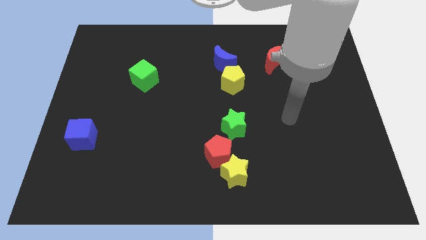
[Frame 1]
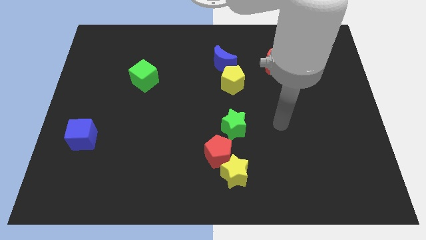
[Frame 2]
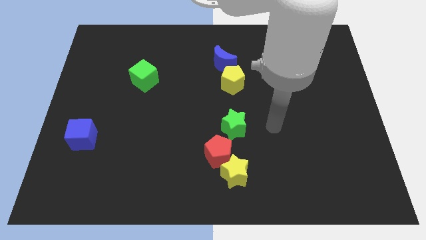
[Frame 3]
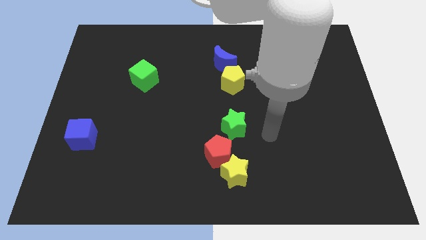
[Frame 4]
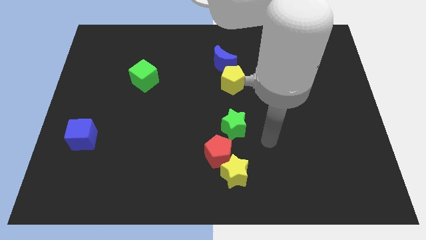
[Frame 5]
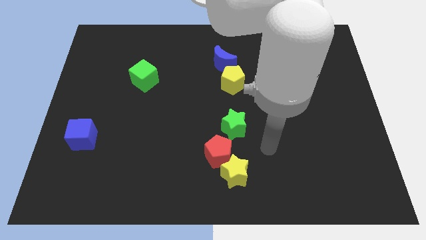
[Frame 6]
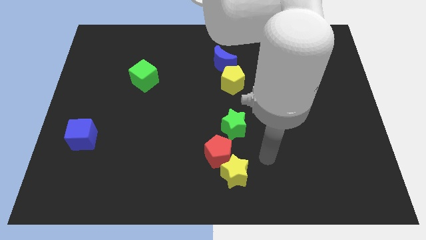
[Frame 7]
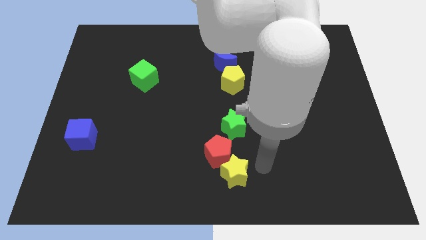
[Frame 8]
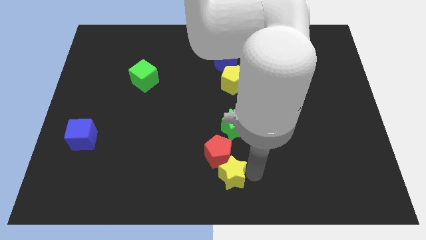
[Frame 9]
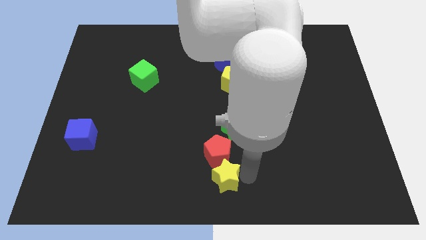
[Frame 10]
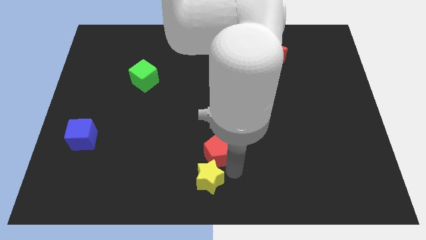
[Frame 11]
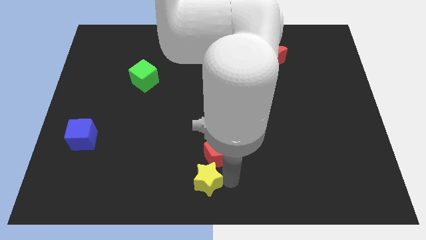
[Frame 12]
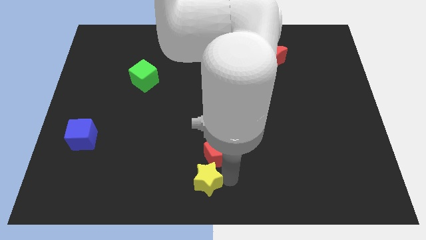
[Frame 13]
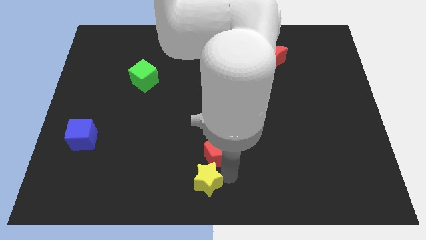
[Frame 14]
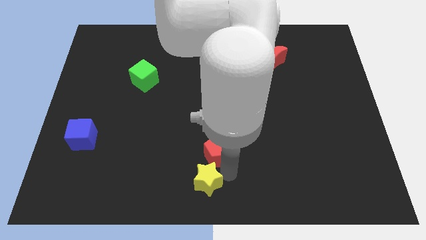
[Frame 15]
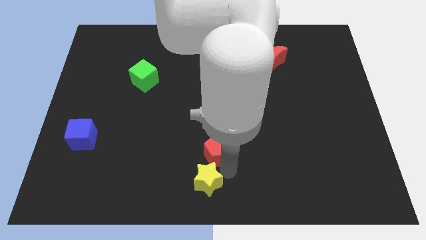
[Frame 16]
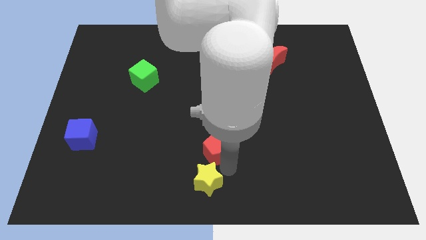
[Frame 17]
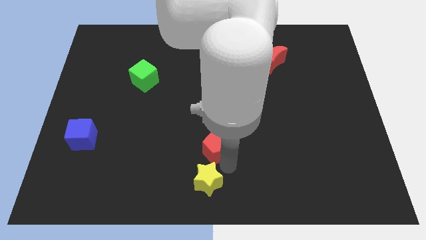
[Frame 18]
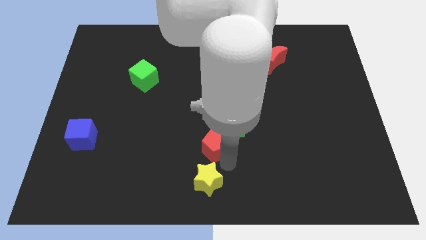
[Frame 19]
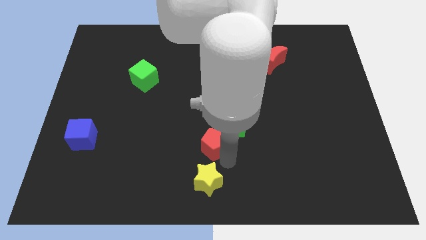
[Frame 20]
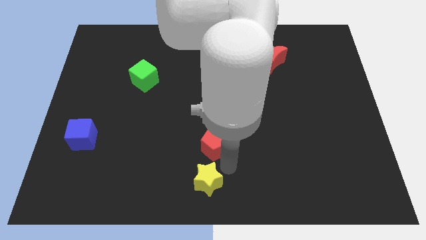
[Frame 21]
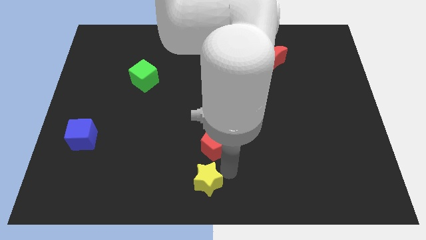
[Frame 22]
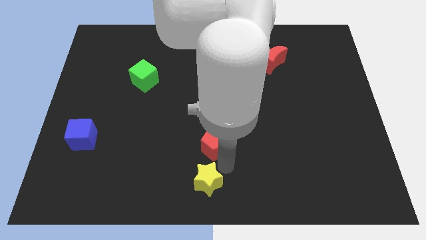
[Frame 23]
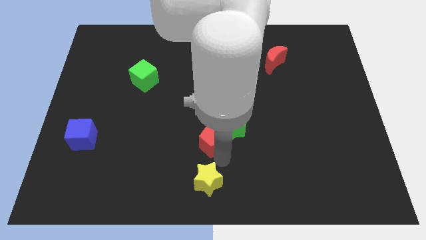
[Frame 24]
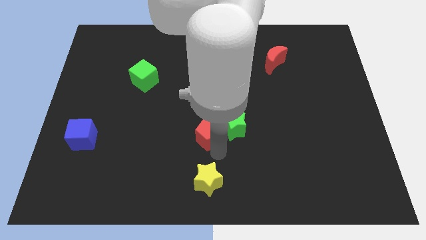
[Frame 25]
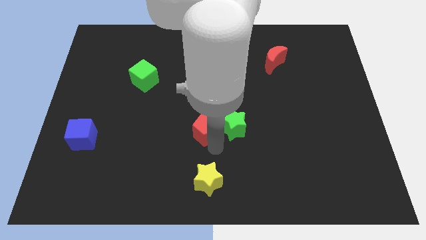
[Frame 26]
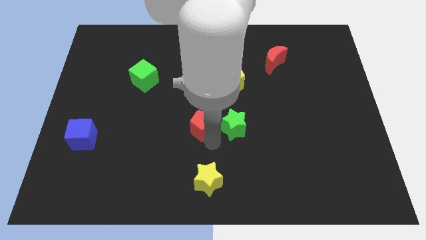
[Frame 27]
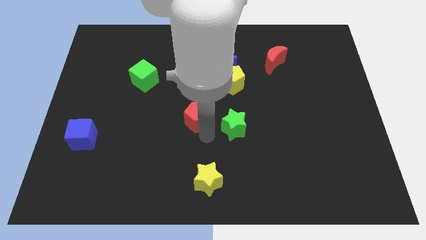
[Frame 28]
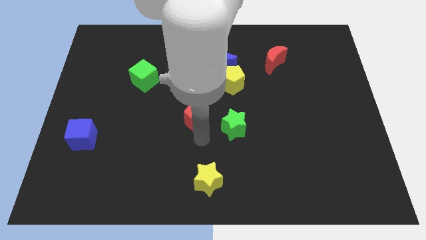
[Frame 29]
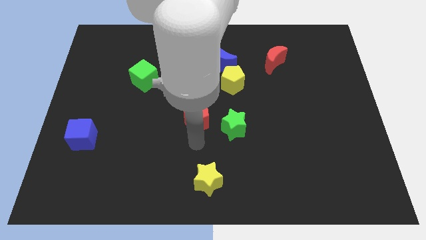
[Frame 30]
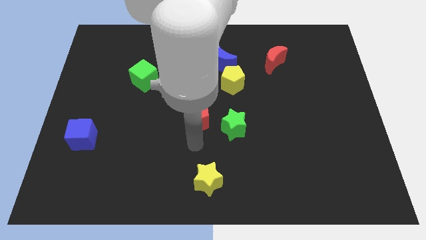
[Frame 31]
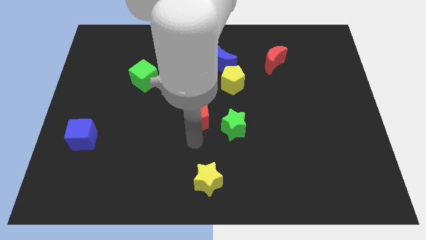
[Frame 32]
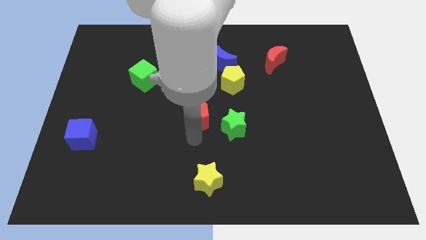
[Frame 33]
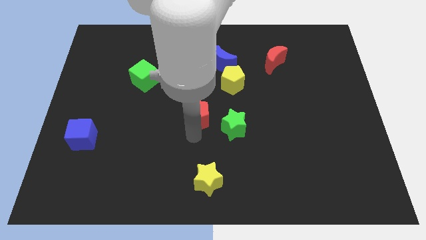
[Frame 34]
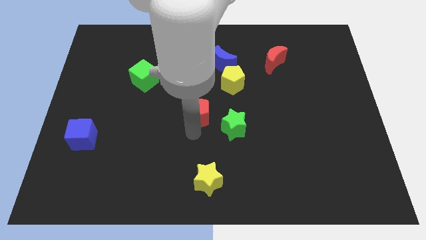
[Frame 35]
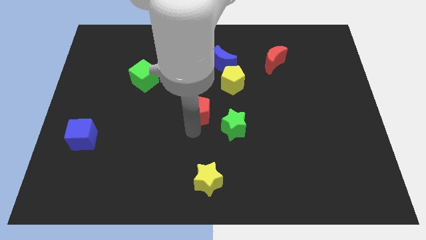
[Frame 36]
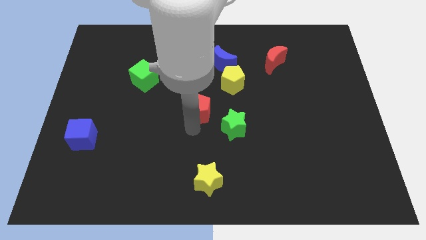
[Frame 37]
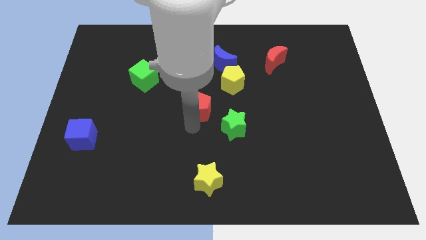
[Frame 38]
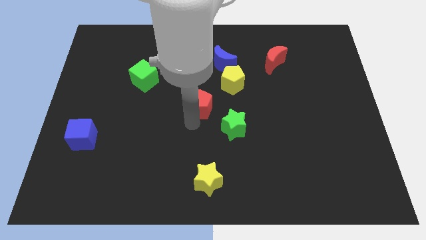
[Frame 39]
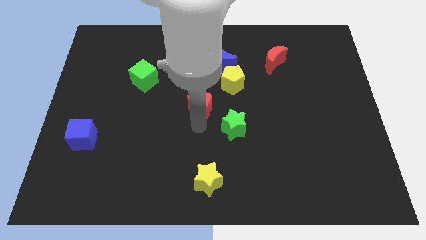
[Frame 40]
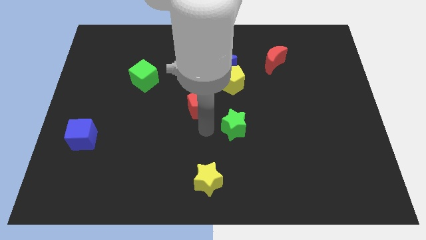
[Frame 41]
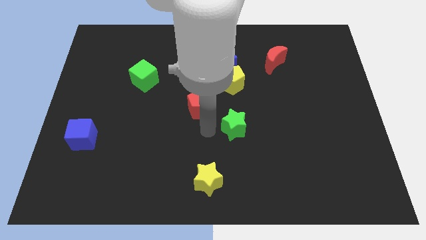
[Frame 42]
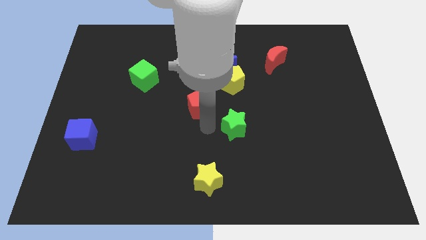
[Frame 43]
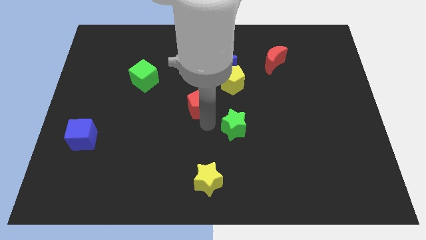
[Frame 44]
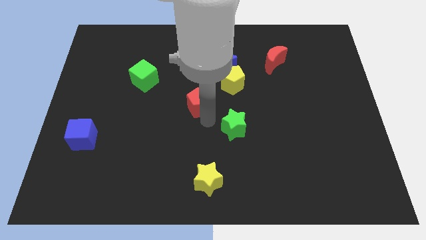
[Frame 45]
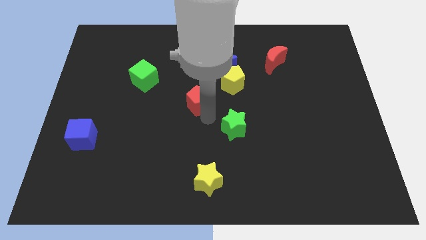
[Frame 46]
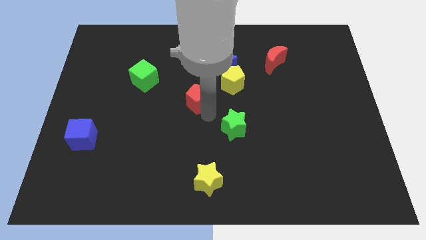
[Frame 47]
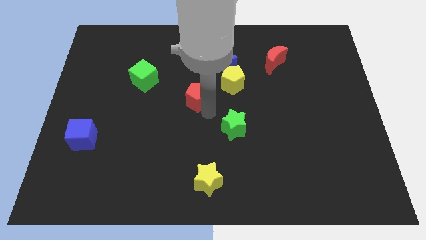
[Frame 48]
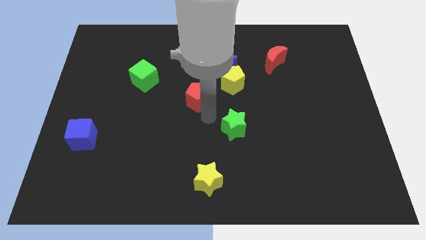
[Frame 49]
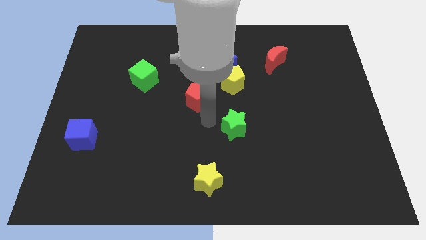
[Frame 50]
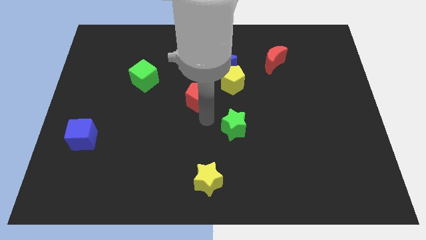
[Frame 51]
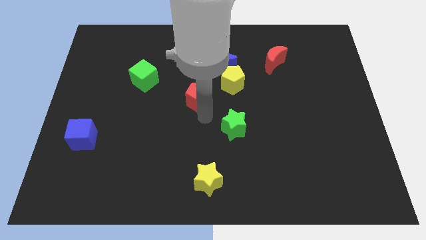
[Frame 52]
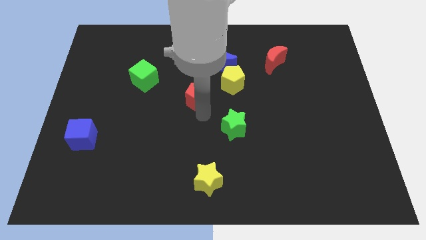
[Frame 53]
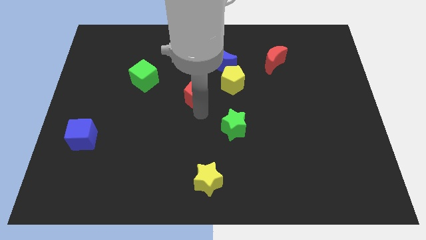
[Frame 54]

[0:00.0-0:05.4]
put the red pentagon to the left of the yellow pentagon

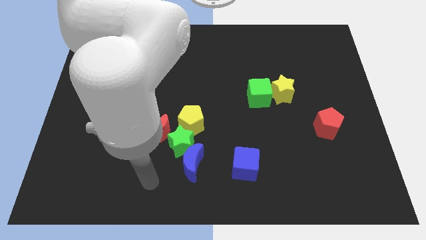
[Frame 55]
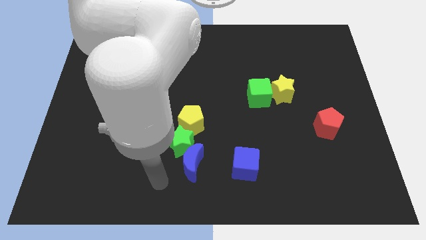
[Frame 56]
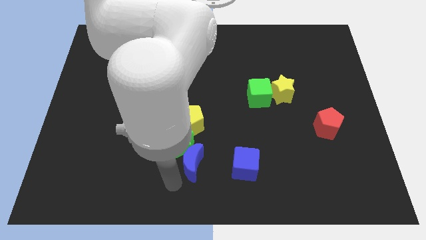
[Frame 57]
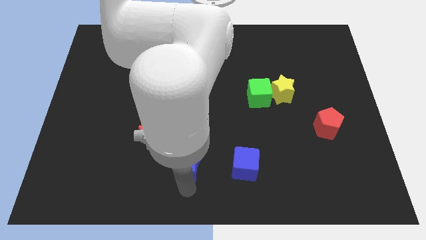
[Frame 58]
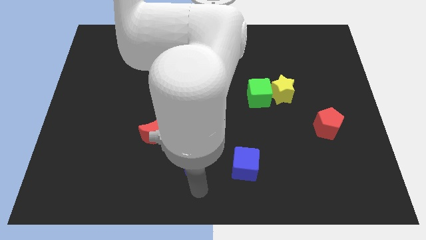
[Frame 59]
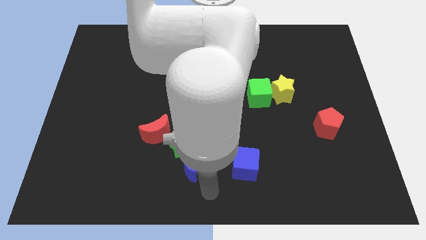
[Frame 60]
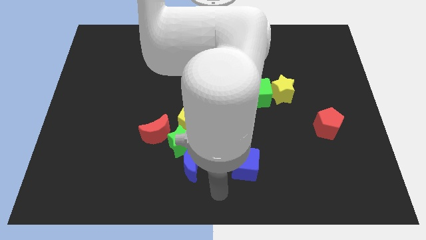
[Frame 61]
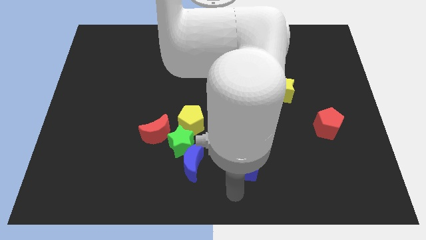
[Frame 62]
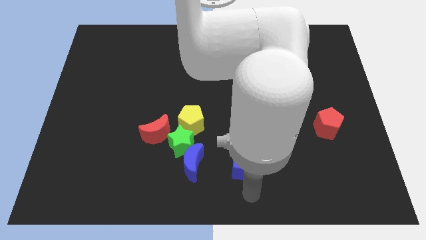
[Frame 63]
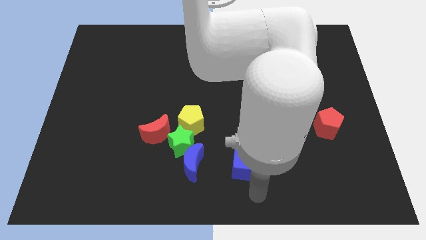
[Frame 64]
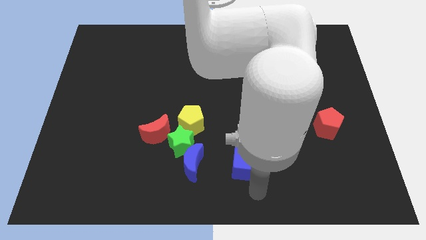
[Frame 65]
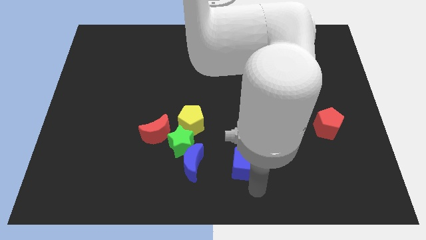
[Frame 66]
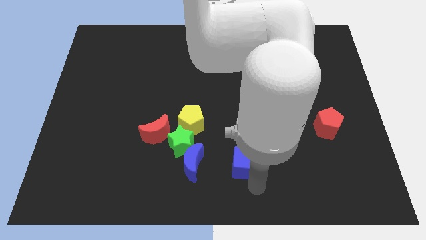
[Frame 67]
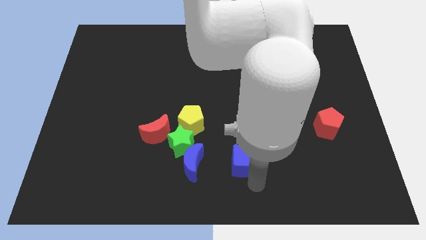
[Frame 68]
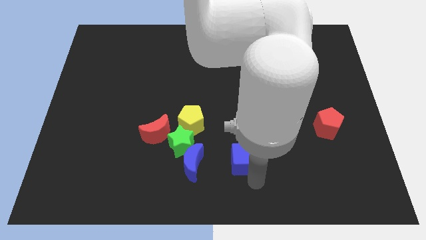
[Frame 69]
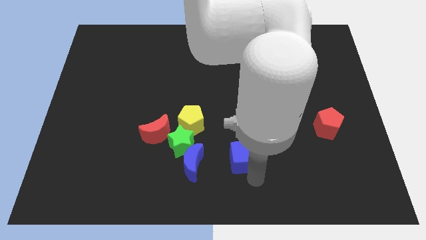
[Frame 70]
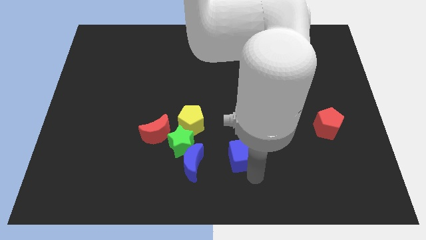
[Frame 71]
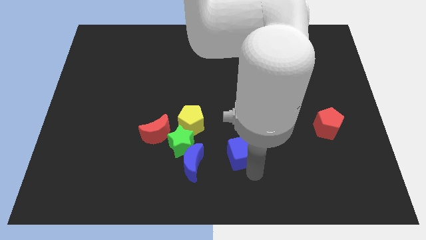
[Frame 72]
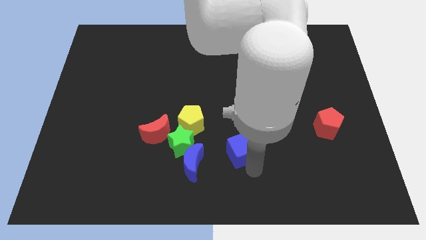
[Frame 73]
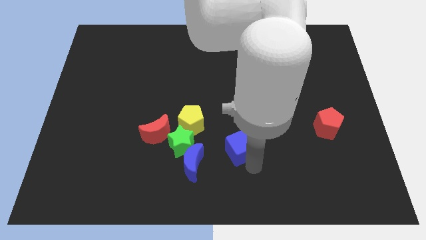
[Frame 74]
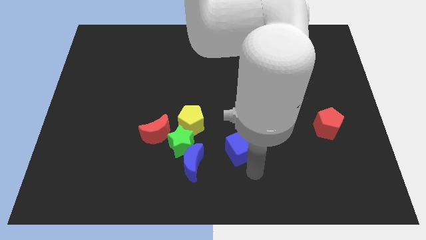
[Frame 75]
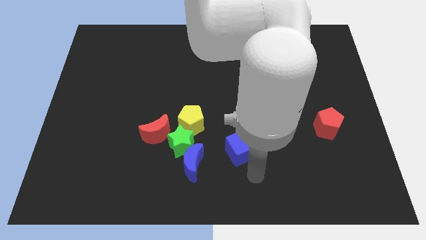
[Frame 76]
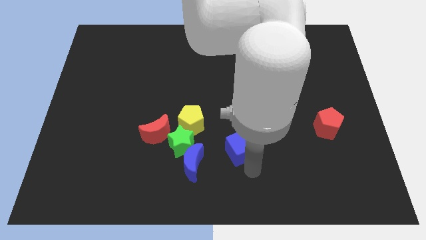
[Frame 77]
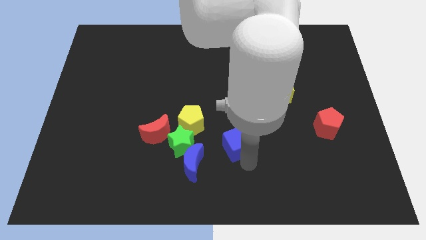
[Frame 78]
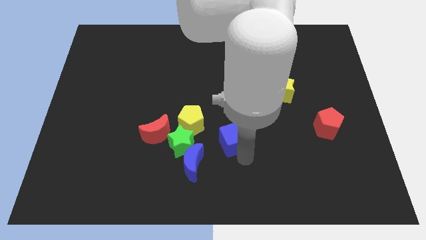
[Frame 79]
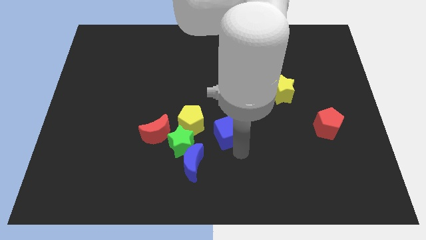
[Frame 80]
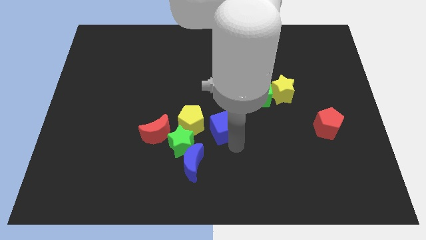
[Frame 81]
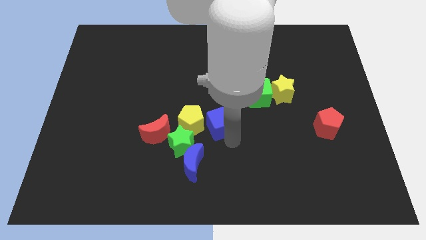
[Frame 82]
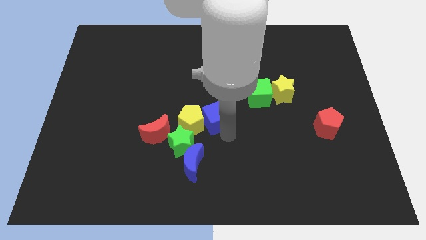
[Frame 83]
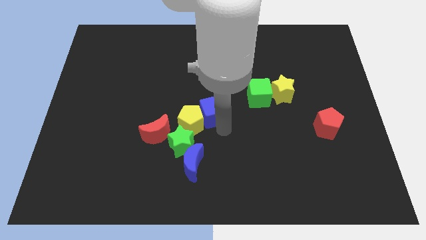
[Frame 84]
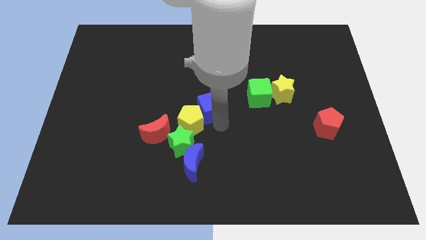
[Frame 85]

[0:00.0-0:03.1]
move the blue cube above the yellow pentagon
